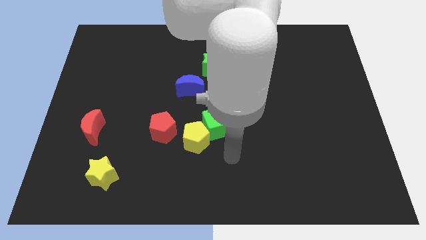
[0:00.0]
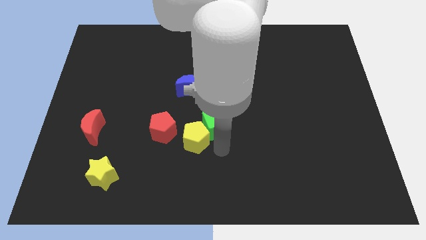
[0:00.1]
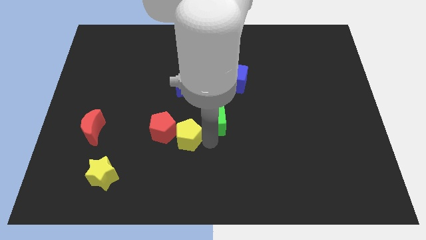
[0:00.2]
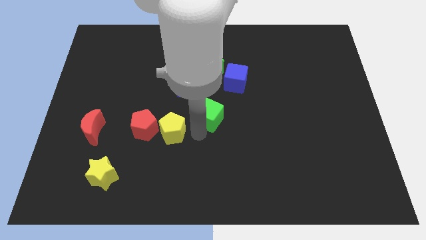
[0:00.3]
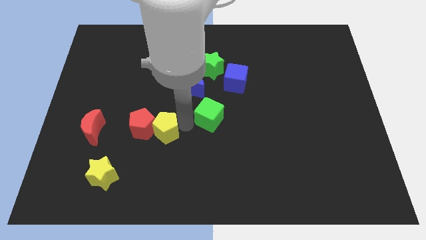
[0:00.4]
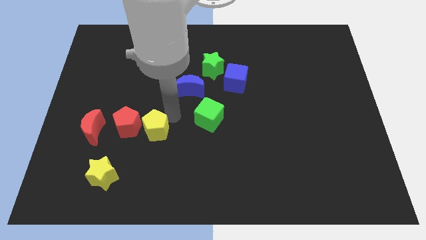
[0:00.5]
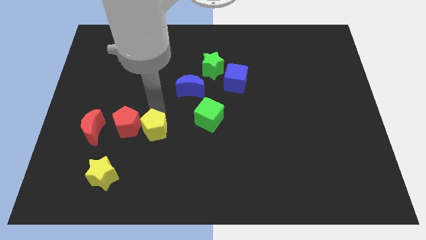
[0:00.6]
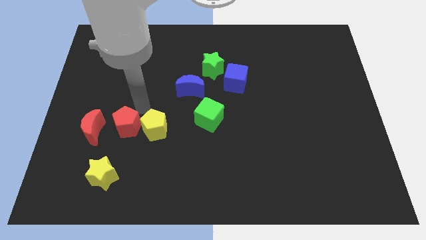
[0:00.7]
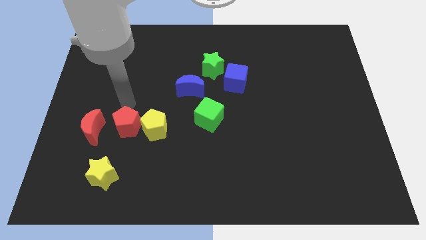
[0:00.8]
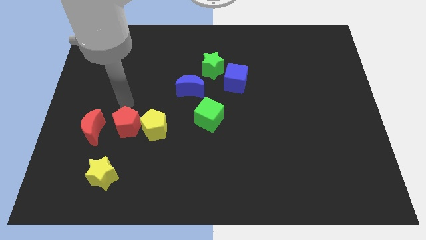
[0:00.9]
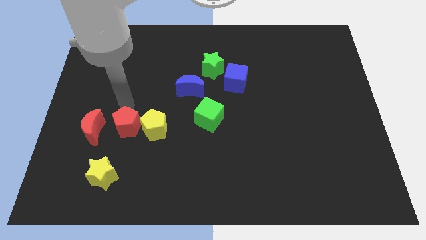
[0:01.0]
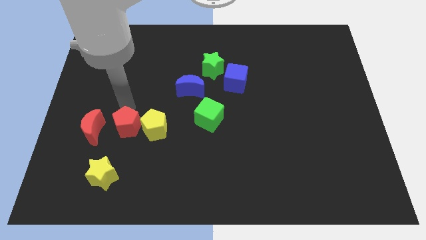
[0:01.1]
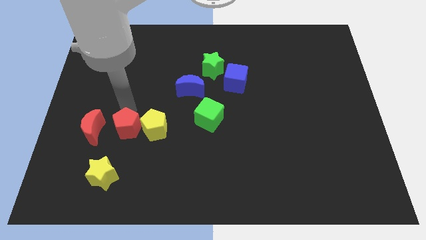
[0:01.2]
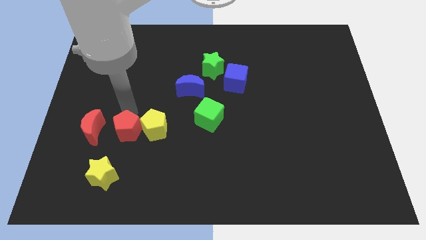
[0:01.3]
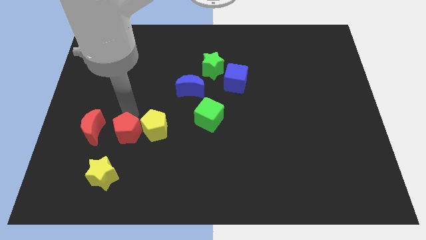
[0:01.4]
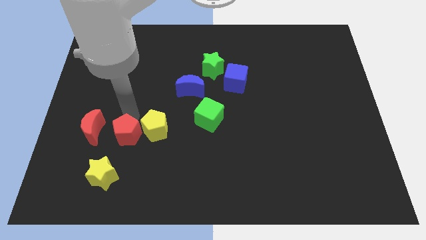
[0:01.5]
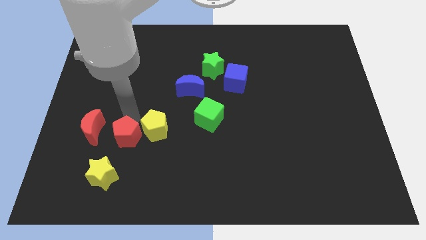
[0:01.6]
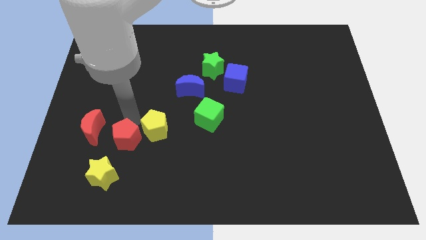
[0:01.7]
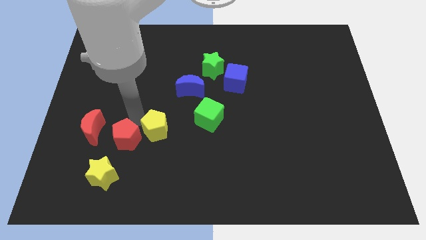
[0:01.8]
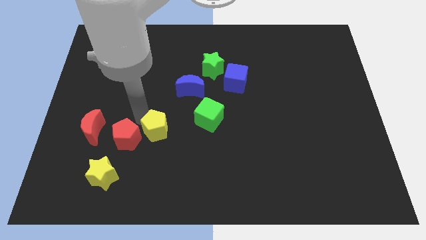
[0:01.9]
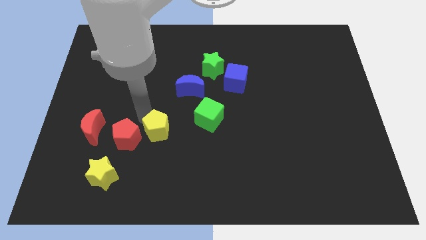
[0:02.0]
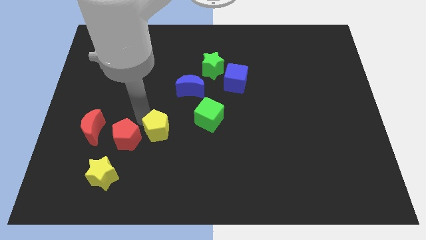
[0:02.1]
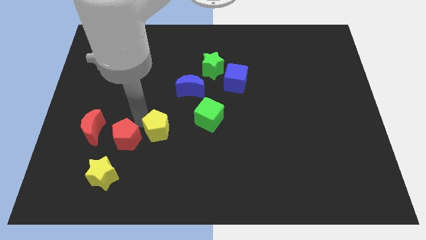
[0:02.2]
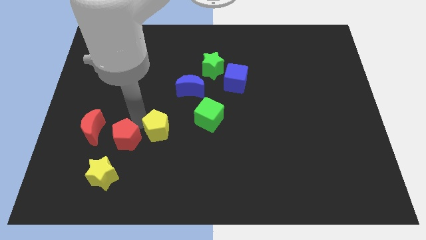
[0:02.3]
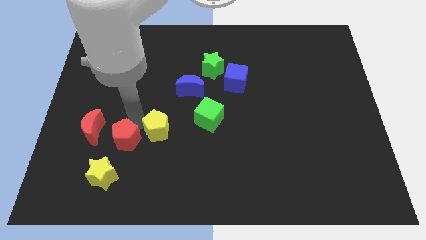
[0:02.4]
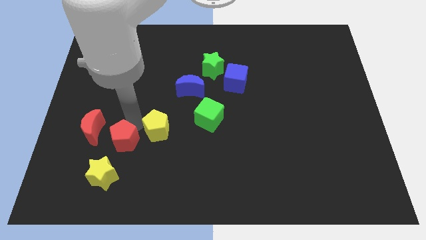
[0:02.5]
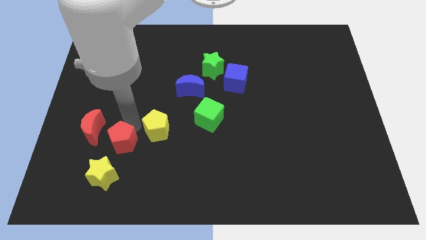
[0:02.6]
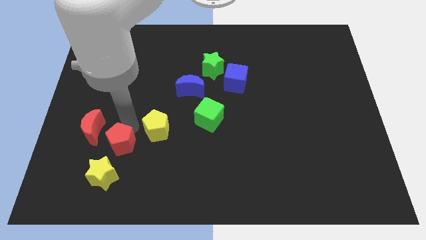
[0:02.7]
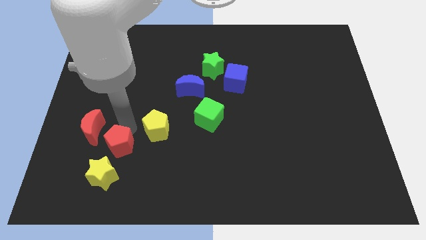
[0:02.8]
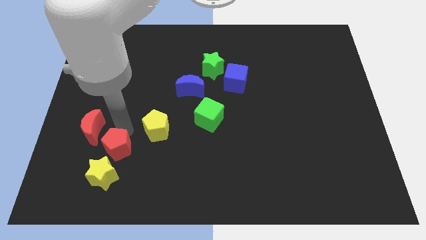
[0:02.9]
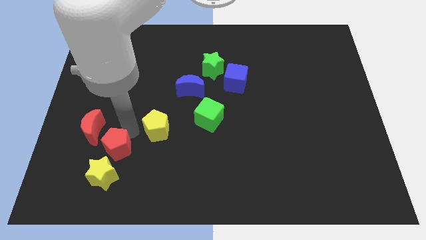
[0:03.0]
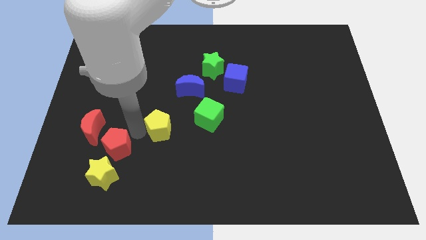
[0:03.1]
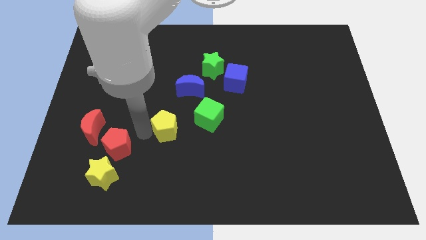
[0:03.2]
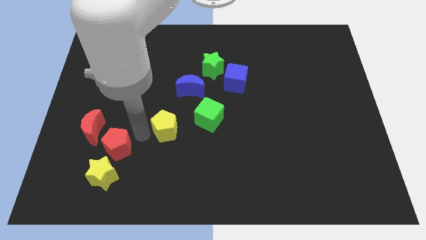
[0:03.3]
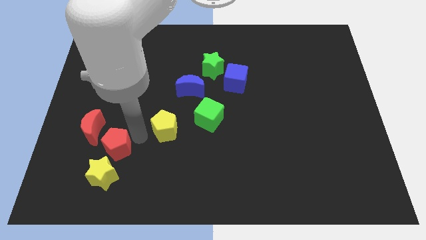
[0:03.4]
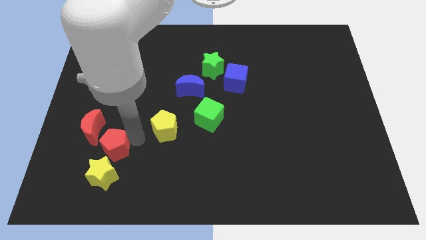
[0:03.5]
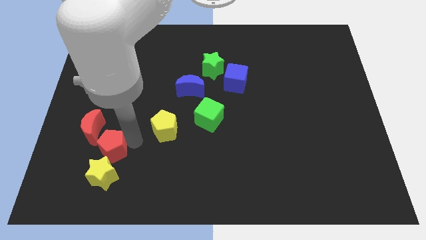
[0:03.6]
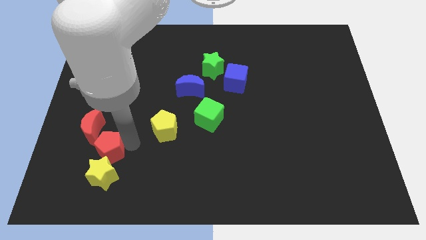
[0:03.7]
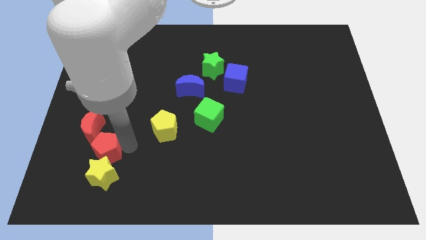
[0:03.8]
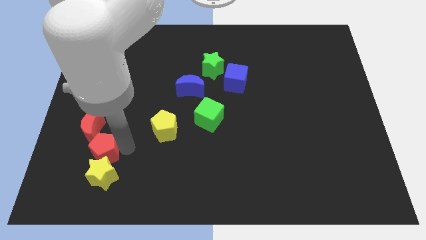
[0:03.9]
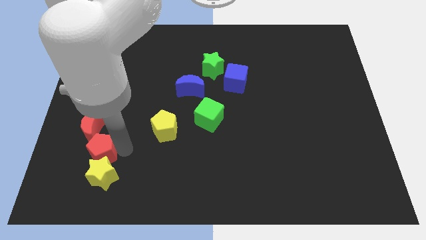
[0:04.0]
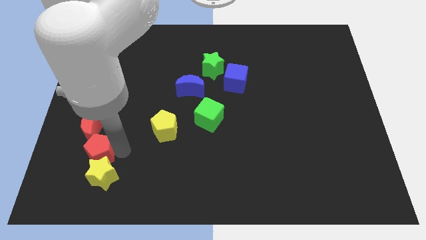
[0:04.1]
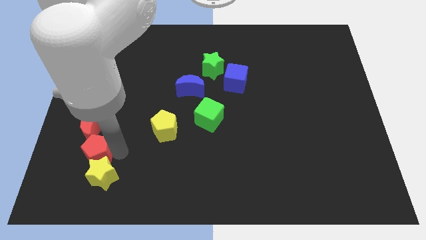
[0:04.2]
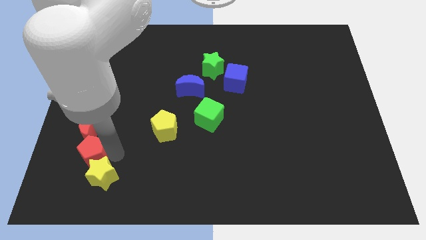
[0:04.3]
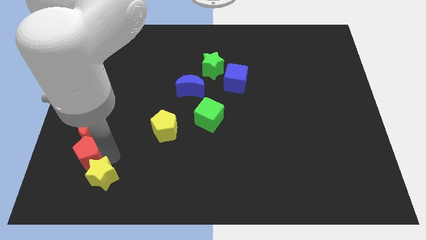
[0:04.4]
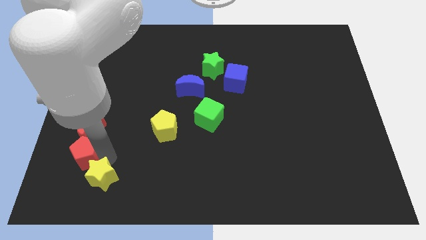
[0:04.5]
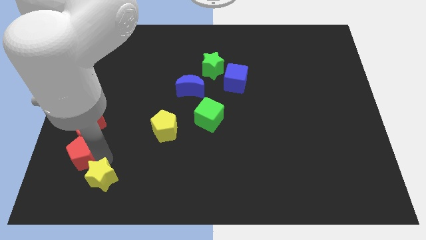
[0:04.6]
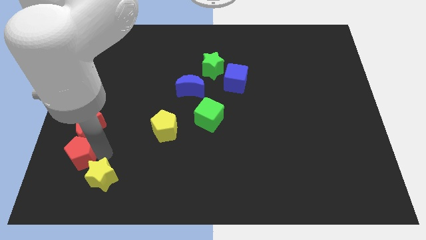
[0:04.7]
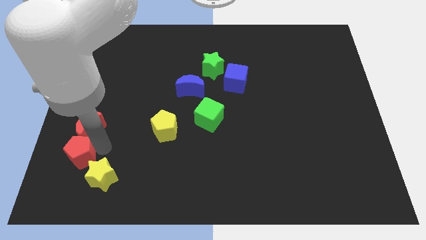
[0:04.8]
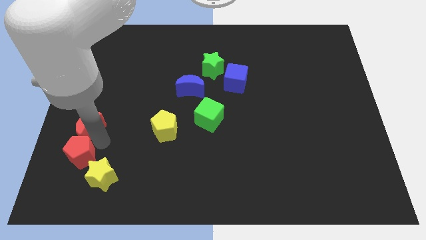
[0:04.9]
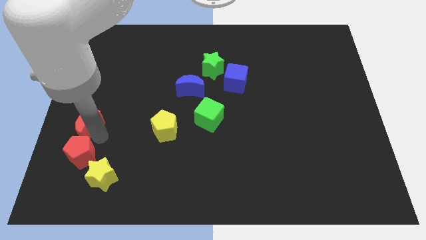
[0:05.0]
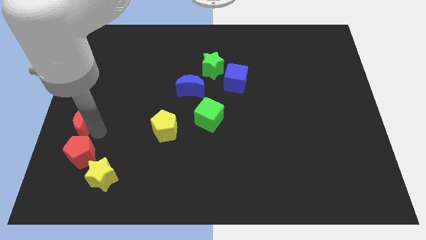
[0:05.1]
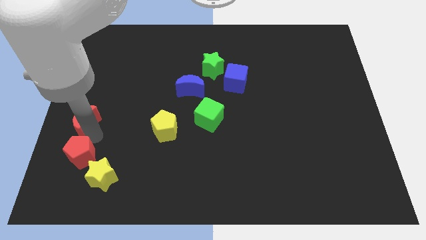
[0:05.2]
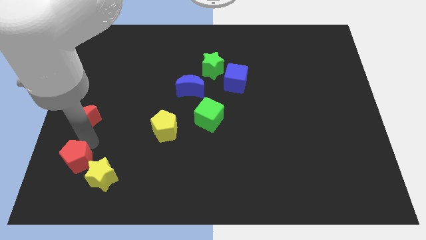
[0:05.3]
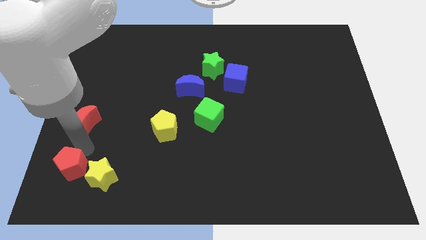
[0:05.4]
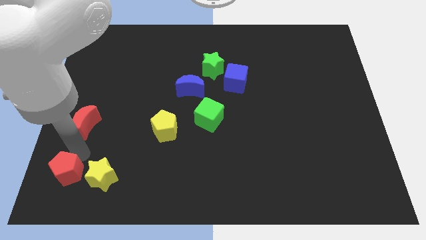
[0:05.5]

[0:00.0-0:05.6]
slide the red pentagon to the bottom left
